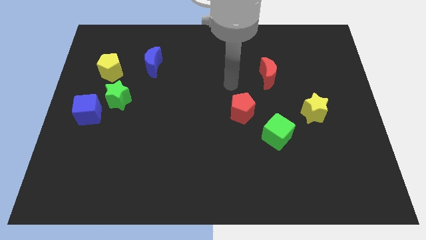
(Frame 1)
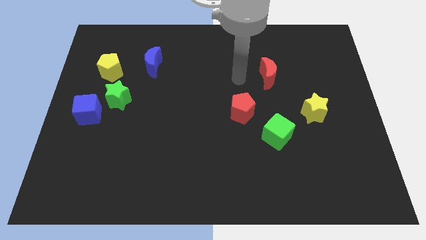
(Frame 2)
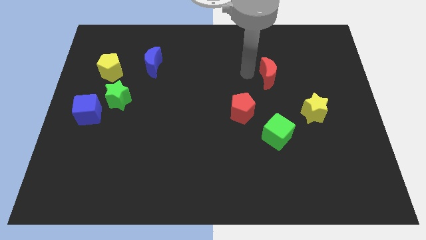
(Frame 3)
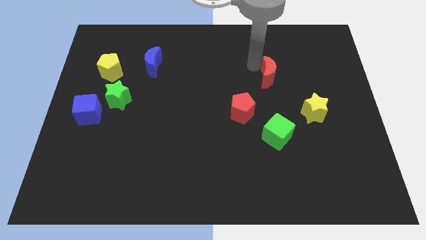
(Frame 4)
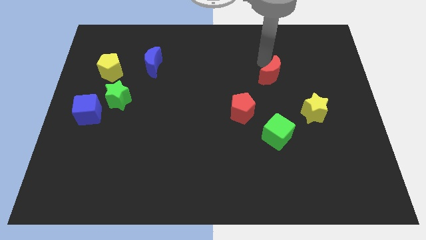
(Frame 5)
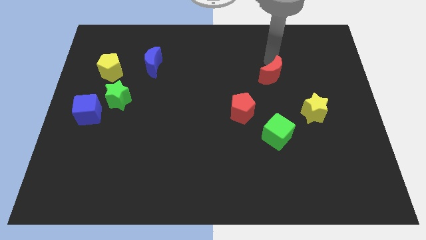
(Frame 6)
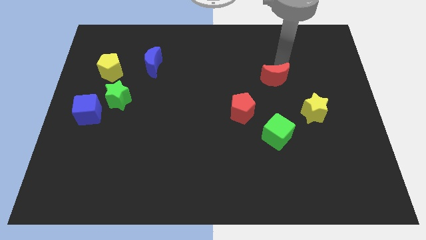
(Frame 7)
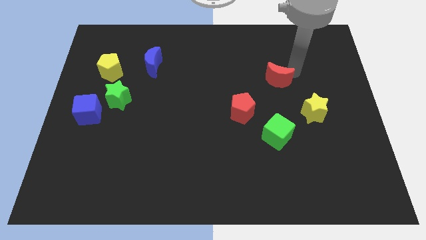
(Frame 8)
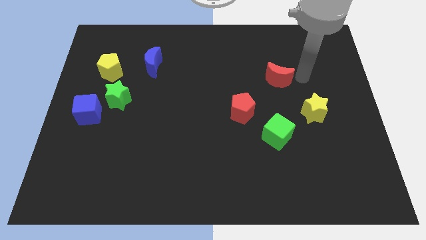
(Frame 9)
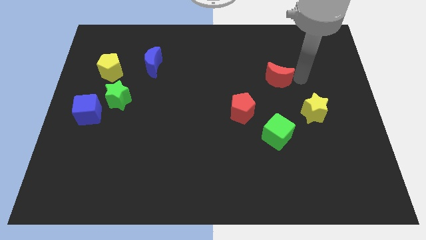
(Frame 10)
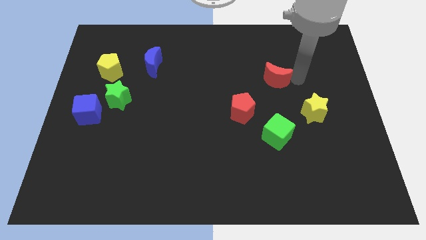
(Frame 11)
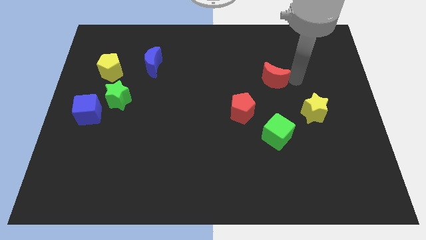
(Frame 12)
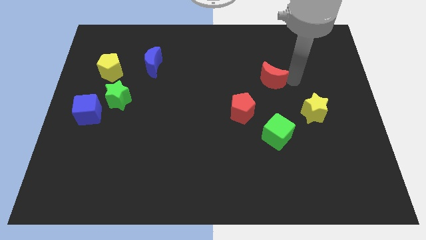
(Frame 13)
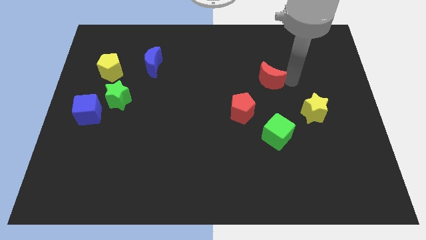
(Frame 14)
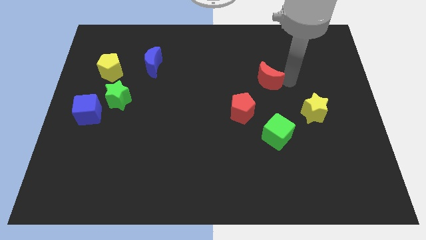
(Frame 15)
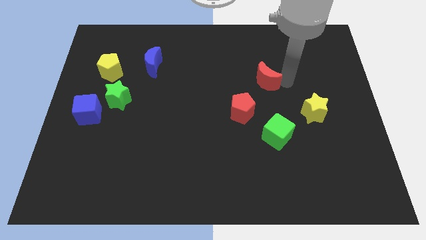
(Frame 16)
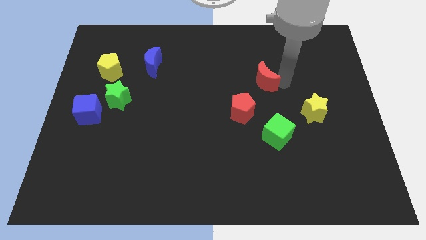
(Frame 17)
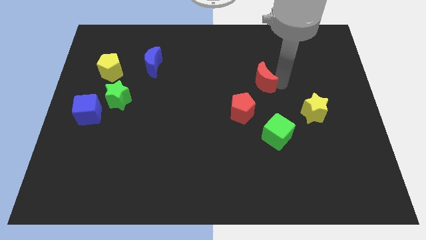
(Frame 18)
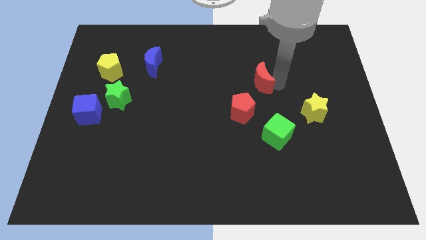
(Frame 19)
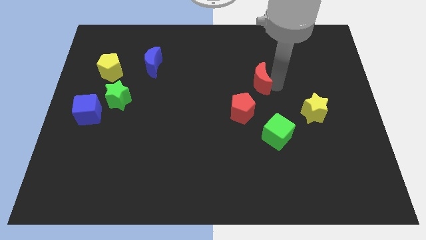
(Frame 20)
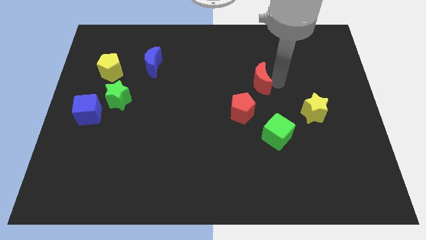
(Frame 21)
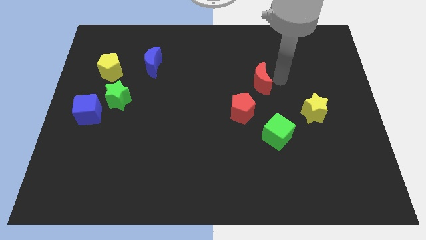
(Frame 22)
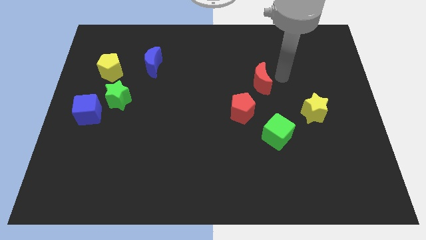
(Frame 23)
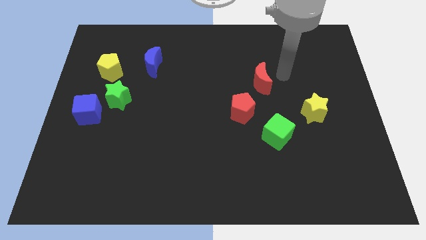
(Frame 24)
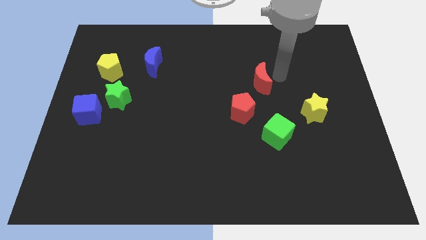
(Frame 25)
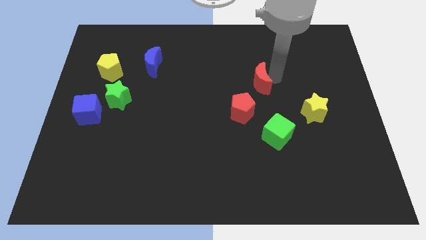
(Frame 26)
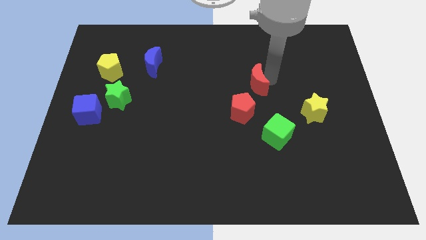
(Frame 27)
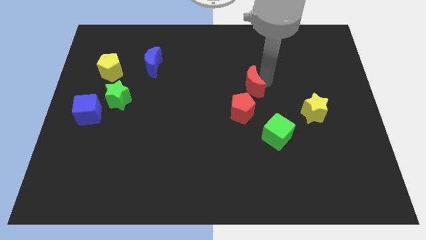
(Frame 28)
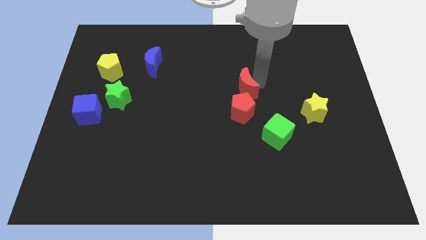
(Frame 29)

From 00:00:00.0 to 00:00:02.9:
push the red moon slightly down and to the left

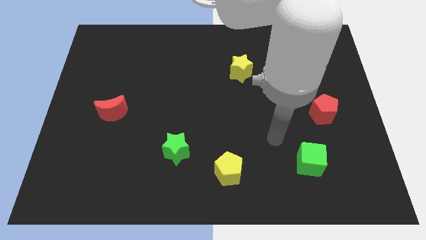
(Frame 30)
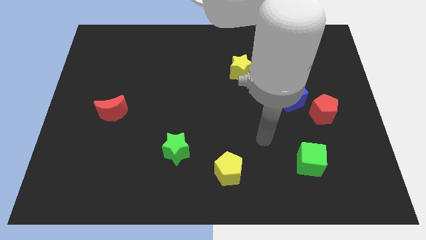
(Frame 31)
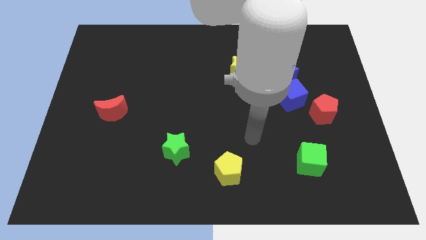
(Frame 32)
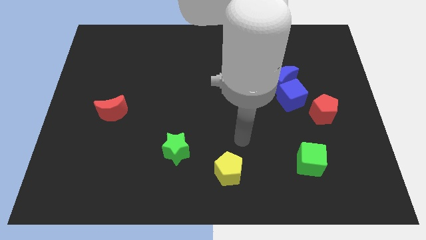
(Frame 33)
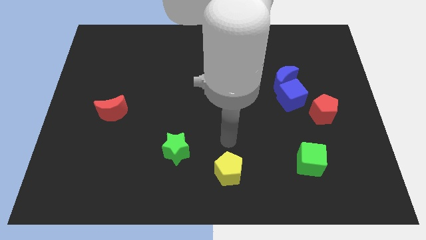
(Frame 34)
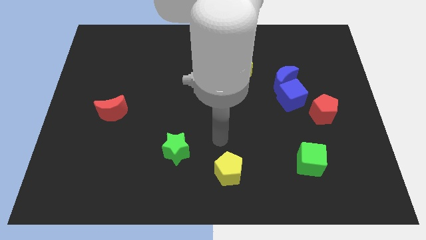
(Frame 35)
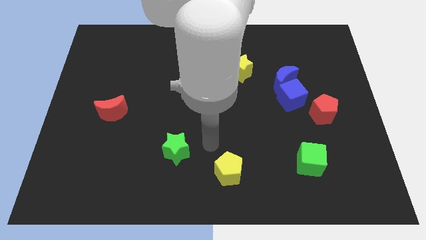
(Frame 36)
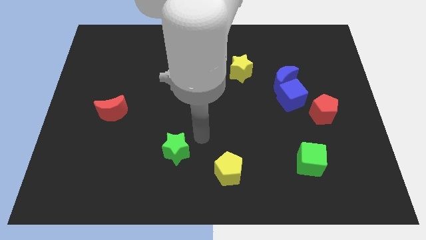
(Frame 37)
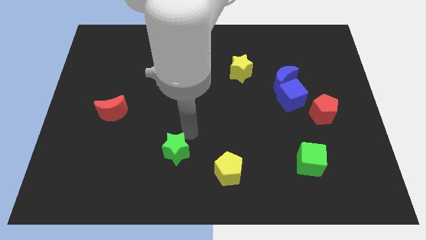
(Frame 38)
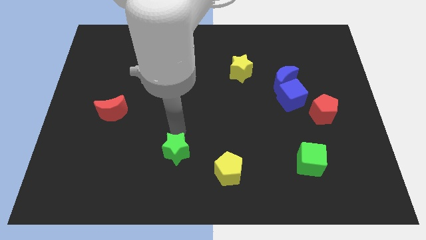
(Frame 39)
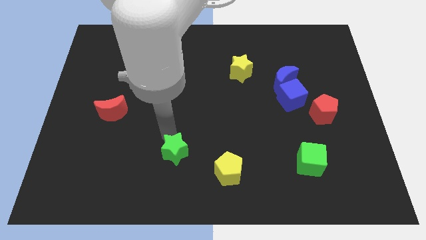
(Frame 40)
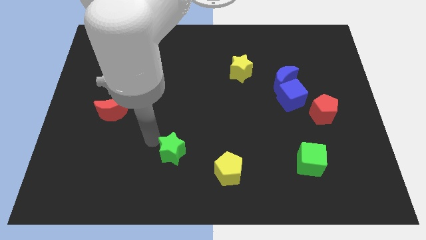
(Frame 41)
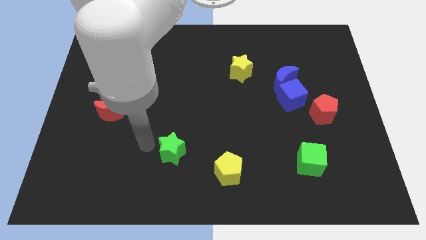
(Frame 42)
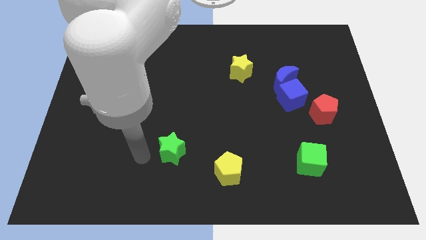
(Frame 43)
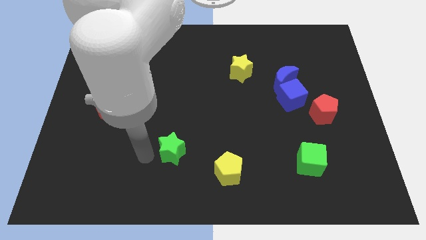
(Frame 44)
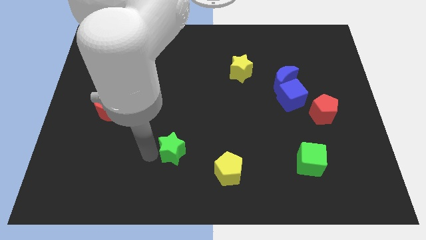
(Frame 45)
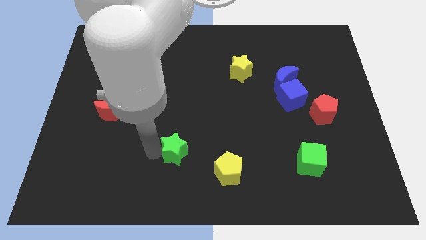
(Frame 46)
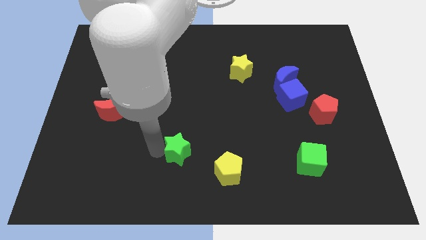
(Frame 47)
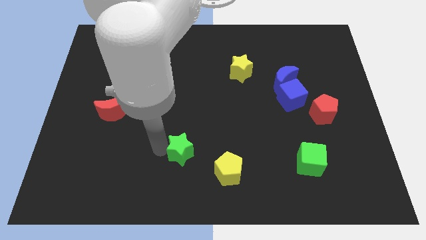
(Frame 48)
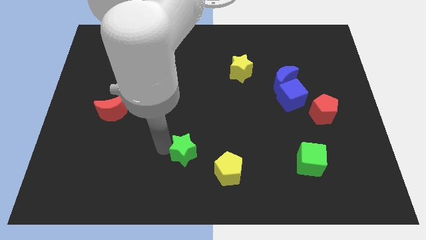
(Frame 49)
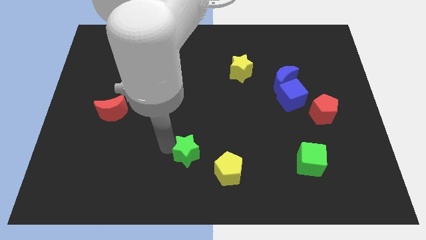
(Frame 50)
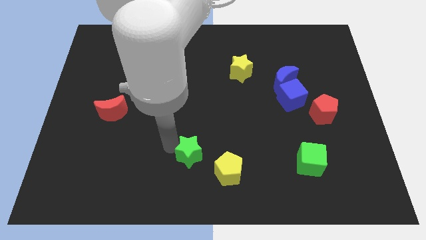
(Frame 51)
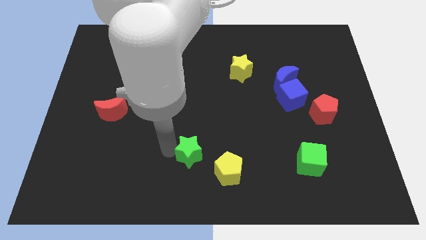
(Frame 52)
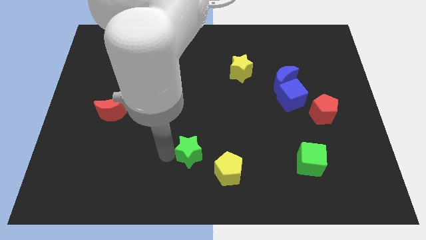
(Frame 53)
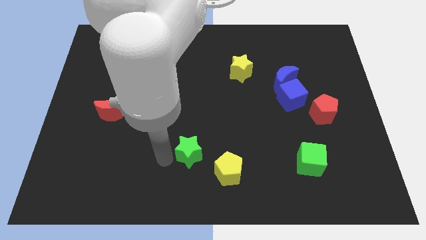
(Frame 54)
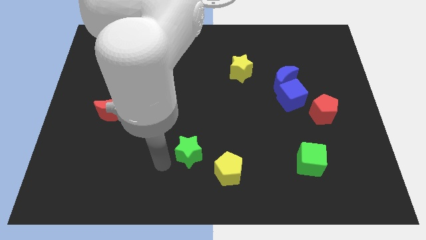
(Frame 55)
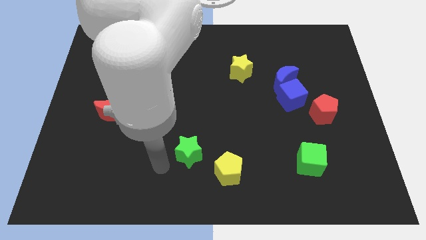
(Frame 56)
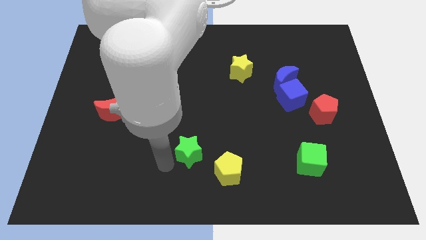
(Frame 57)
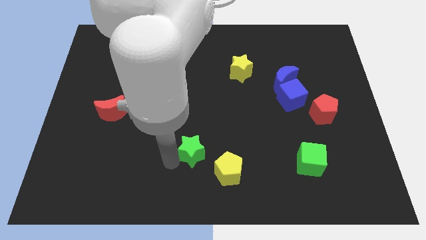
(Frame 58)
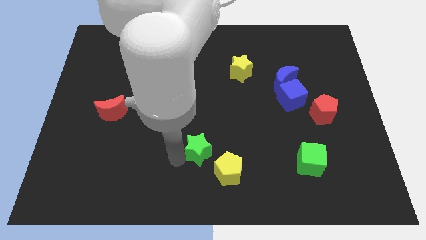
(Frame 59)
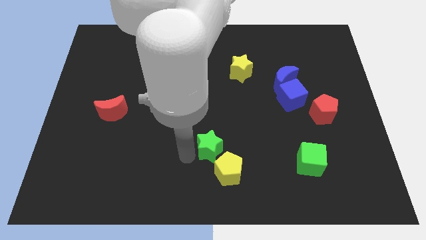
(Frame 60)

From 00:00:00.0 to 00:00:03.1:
slightly slide the green star to the right

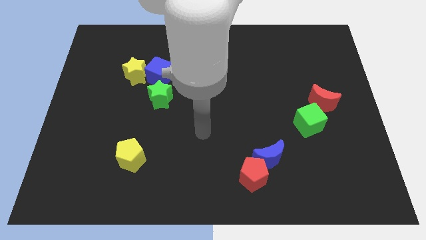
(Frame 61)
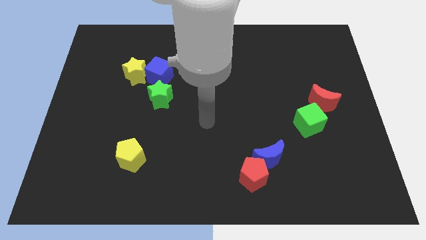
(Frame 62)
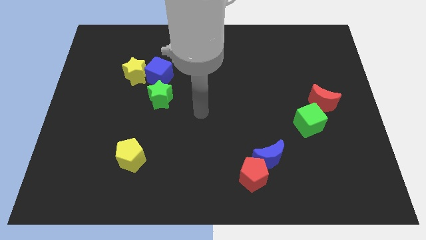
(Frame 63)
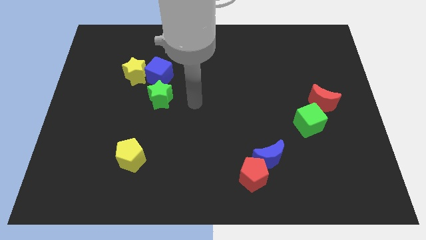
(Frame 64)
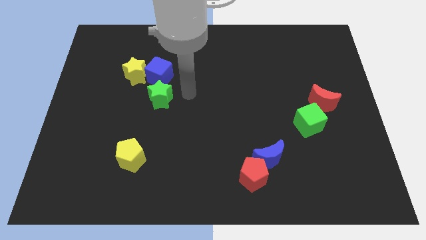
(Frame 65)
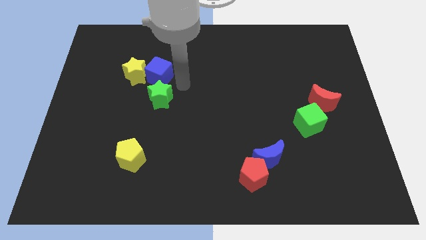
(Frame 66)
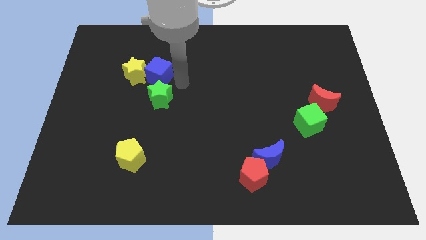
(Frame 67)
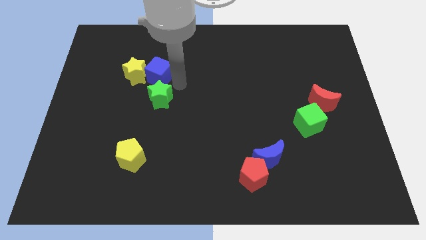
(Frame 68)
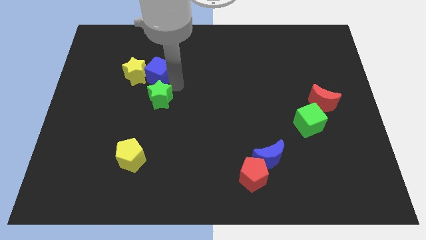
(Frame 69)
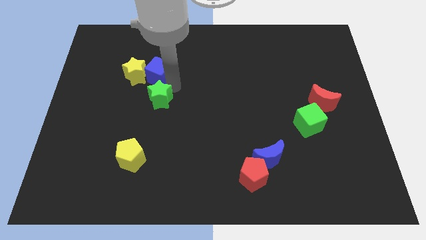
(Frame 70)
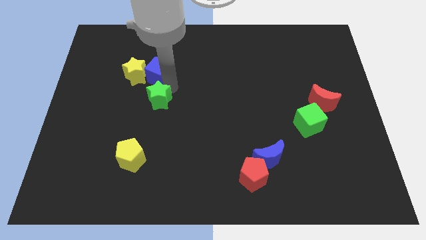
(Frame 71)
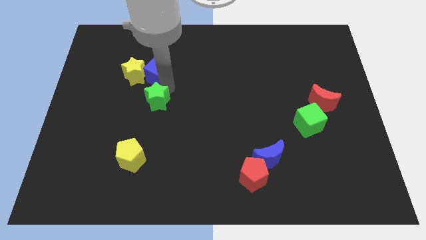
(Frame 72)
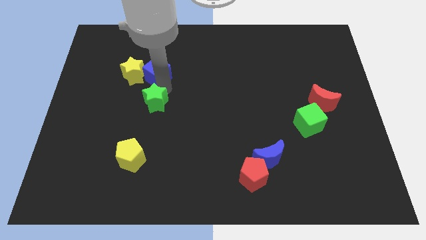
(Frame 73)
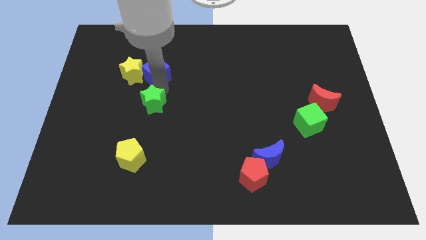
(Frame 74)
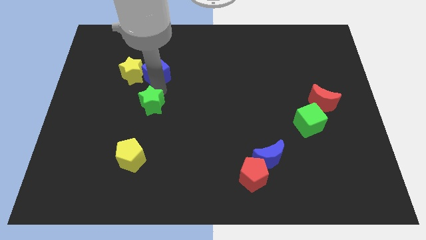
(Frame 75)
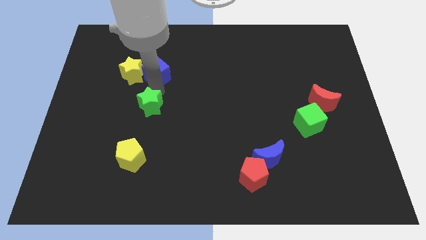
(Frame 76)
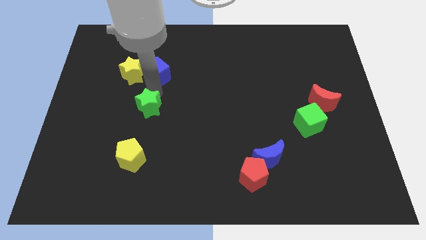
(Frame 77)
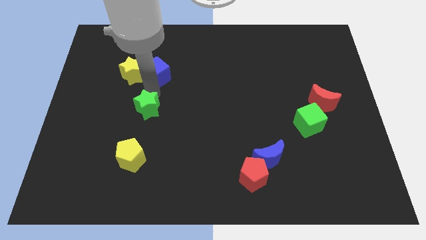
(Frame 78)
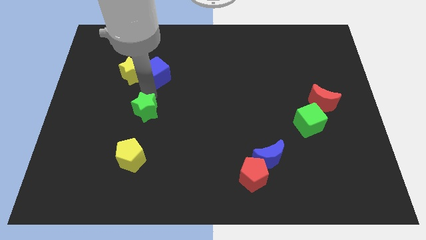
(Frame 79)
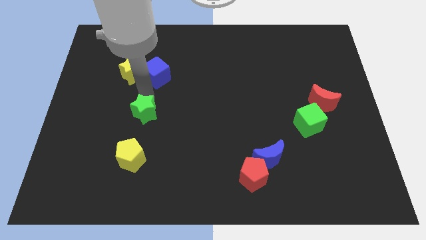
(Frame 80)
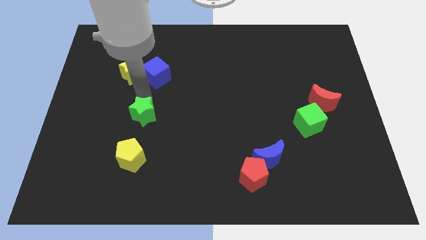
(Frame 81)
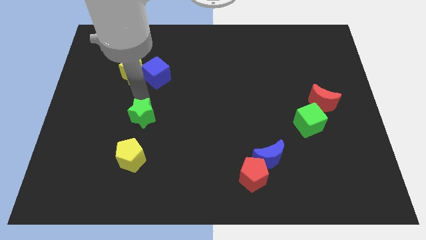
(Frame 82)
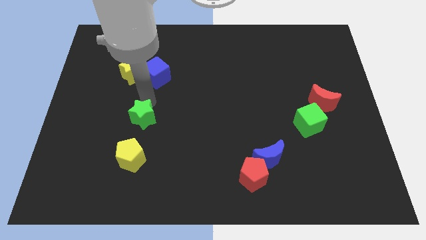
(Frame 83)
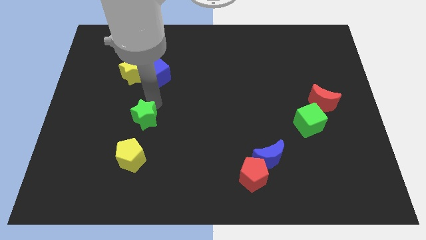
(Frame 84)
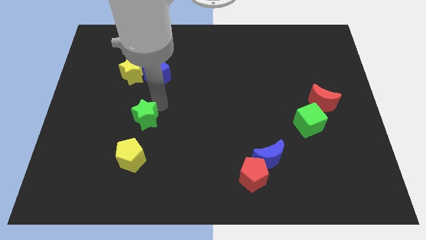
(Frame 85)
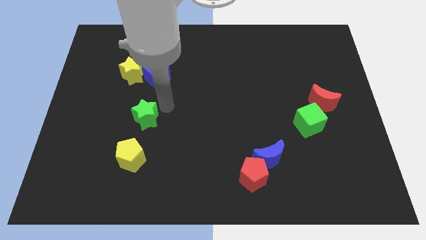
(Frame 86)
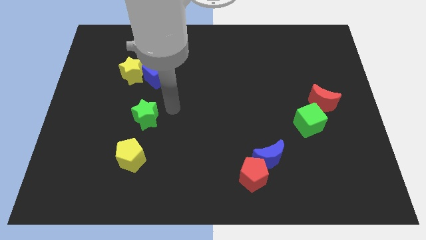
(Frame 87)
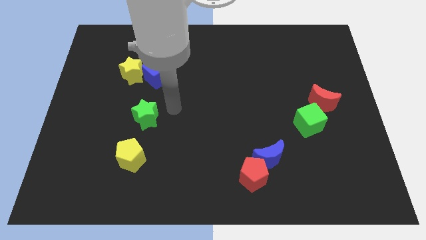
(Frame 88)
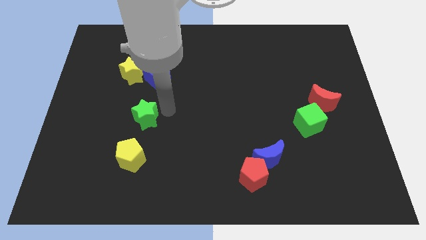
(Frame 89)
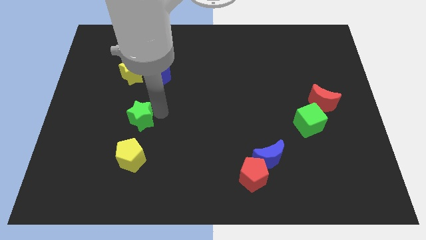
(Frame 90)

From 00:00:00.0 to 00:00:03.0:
move the green star down and left slightly
